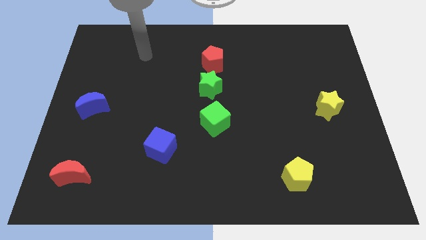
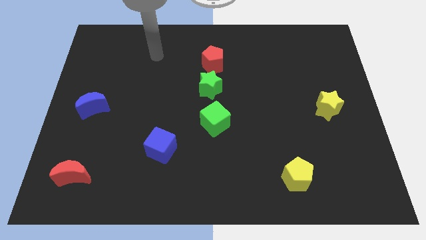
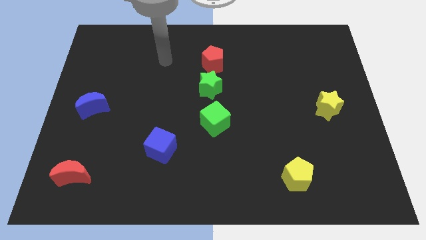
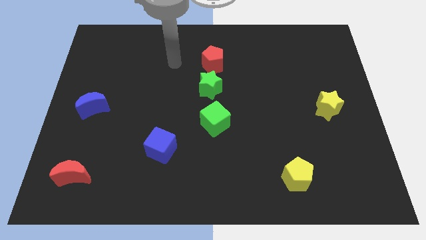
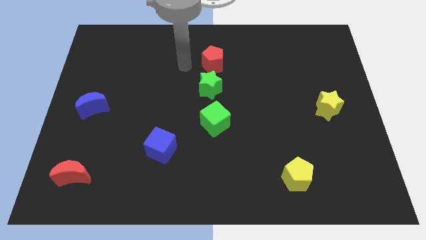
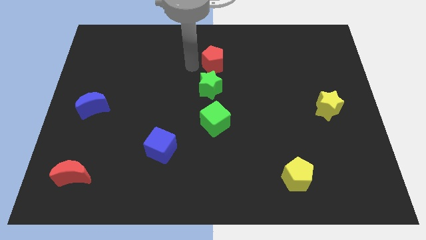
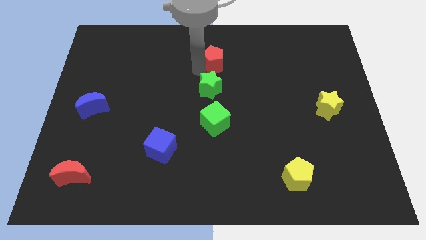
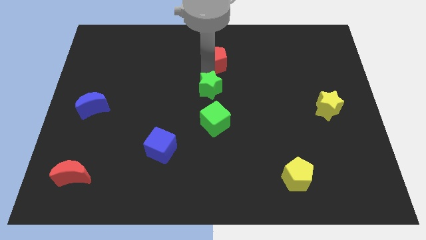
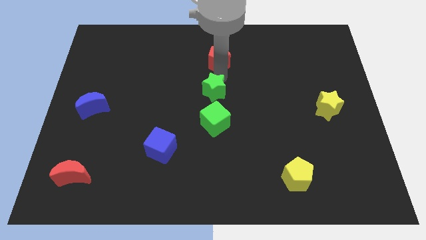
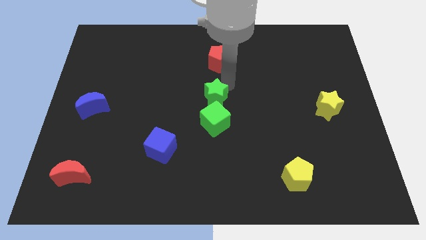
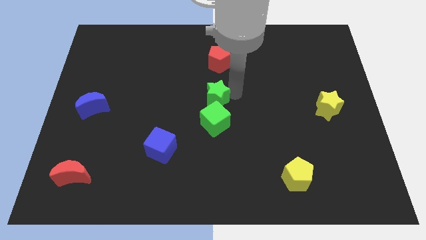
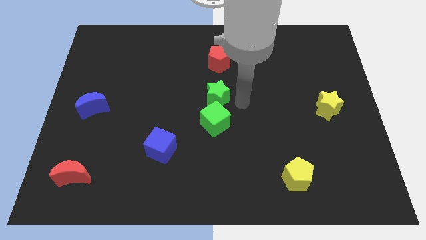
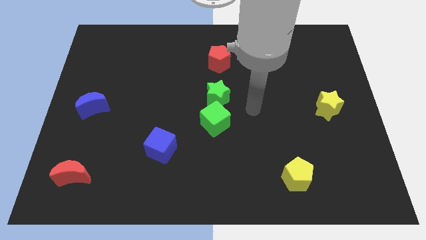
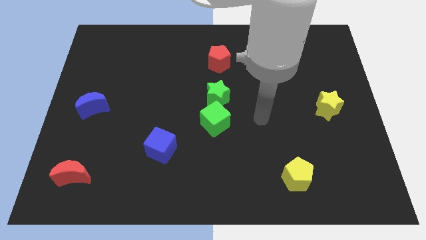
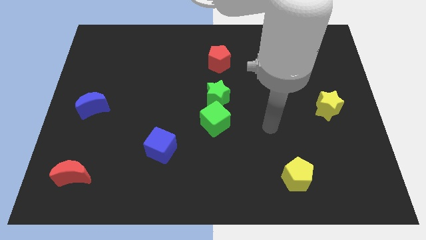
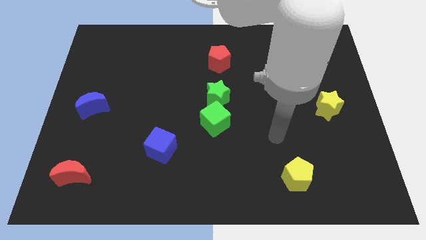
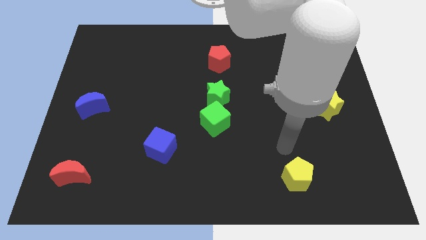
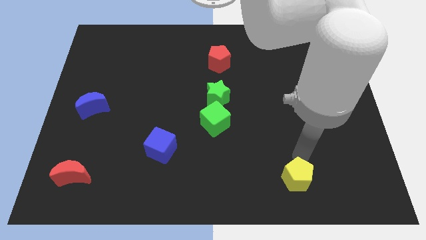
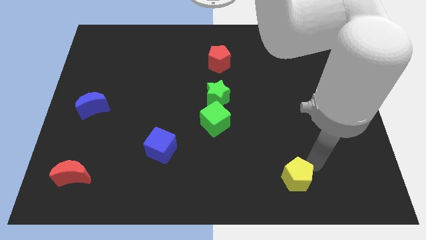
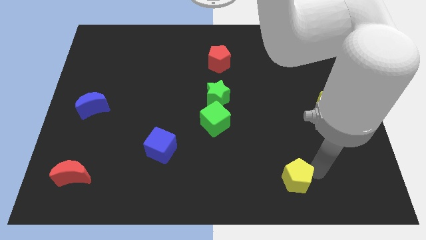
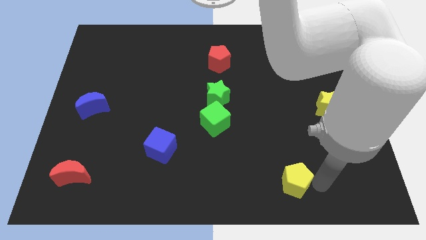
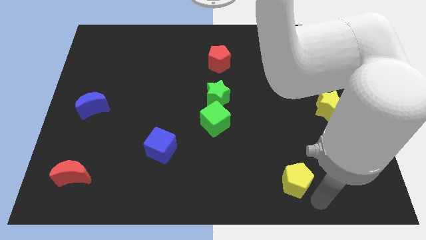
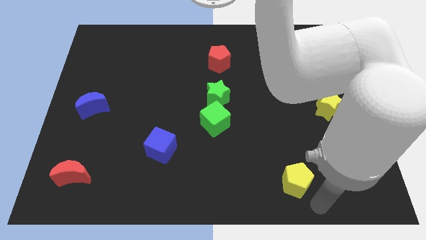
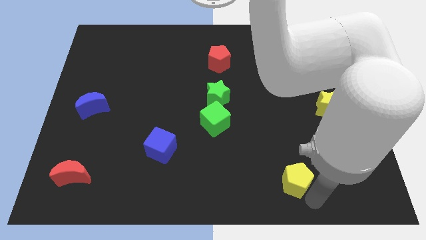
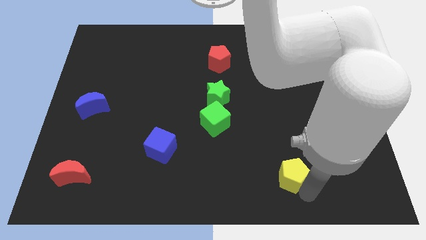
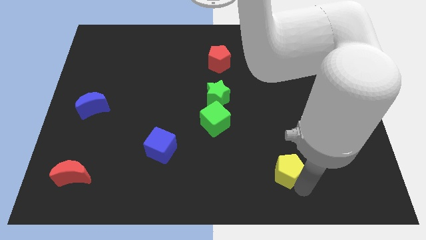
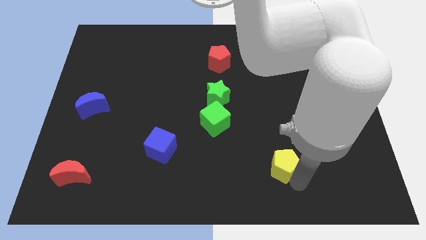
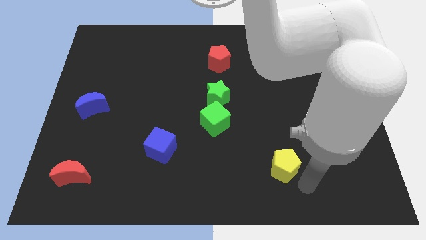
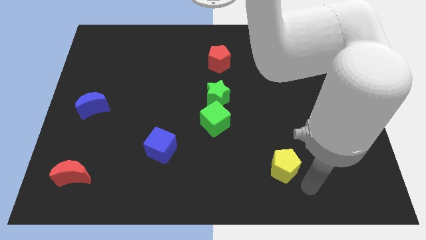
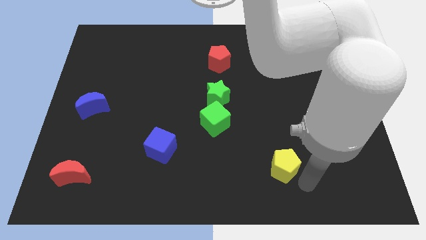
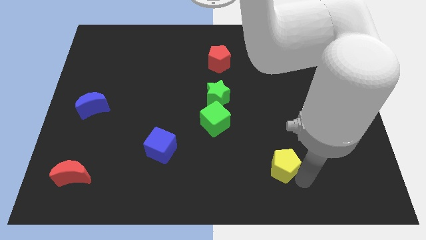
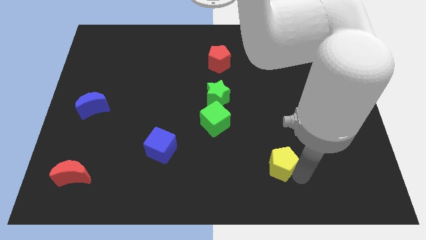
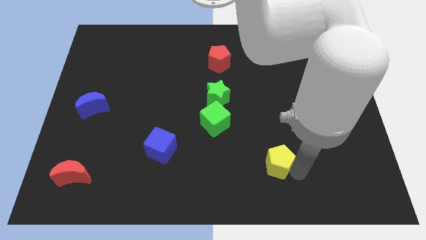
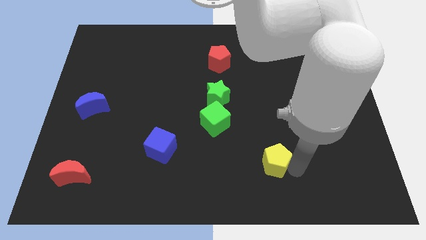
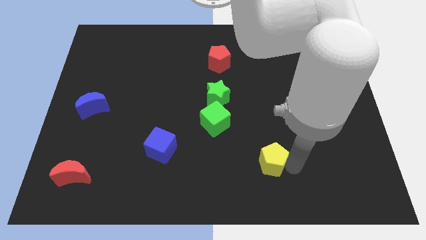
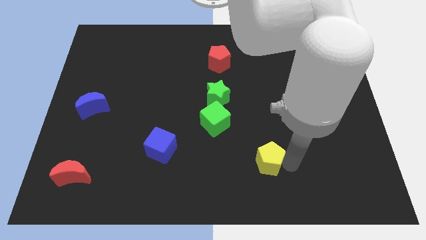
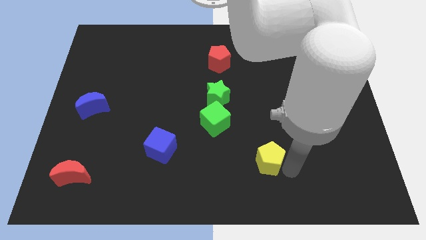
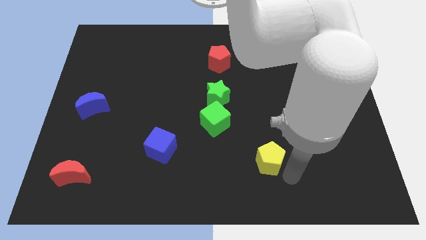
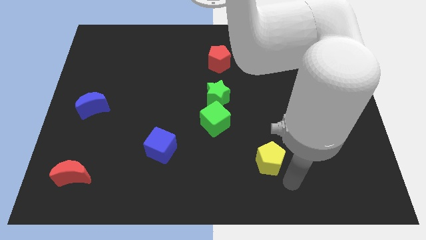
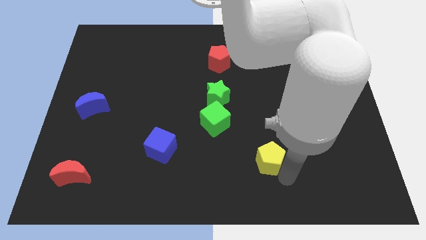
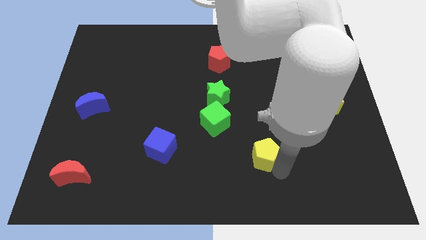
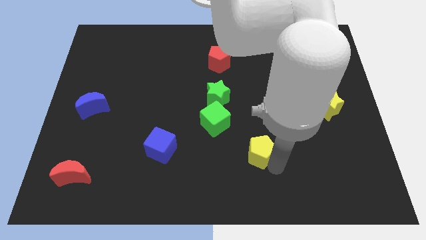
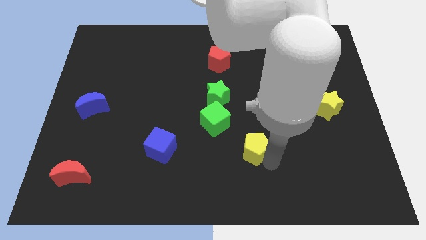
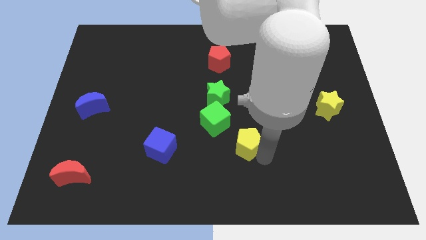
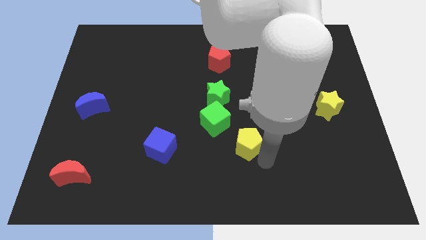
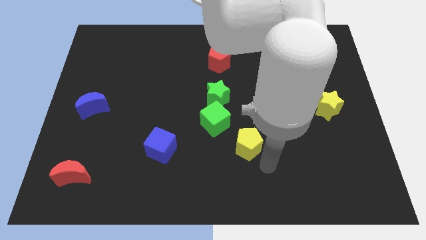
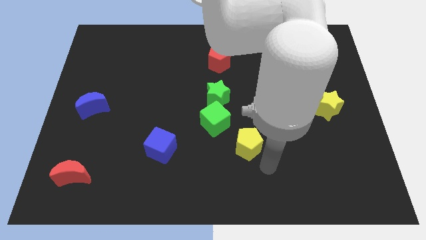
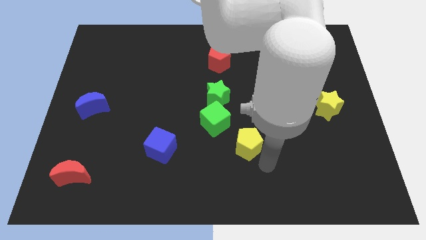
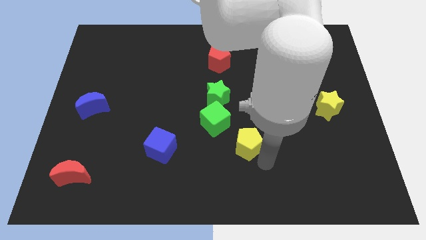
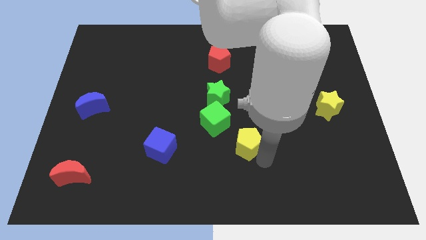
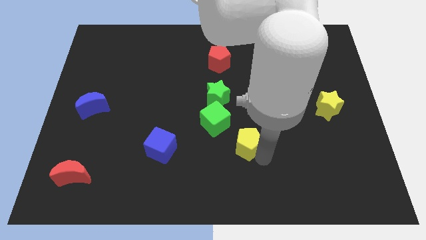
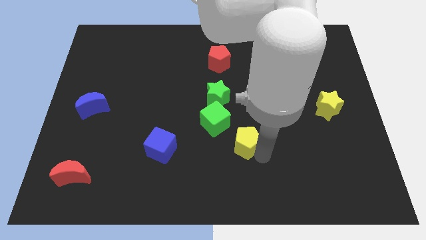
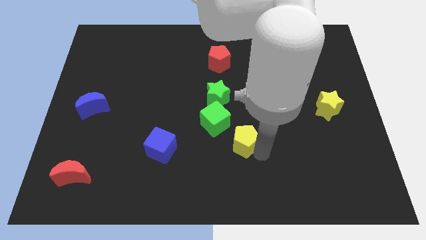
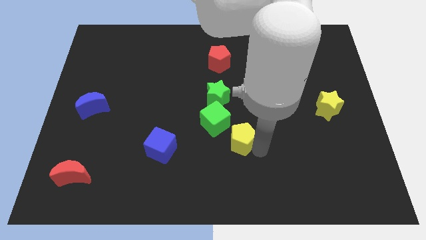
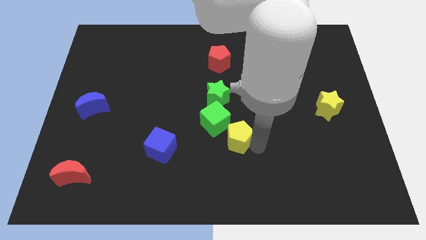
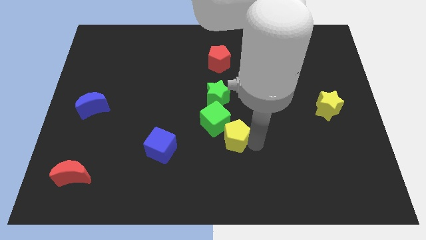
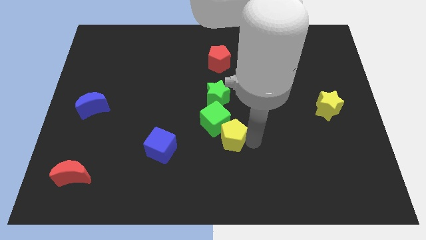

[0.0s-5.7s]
push the yellow pentagon next to the green cube

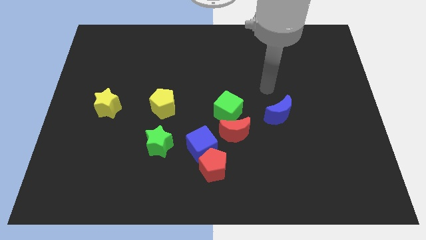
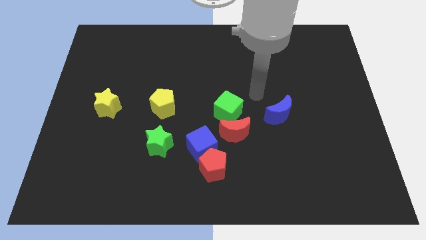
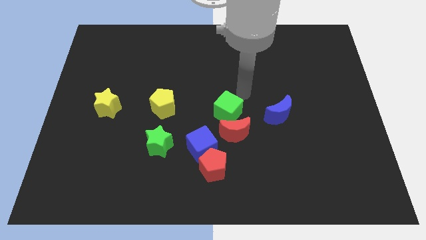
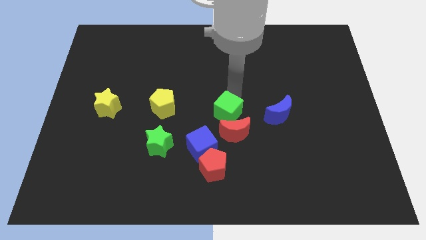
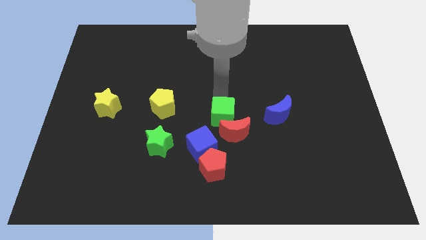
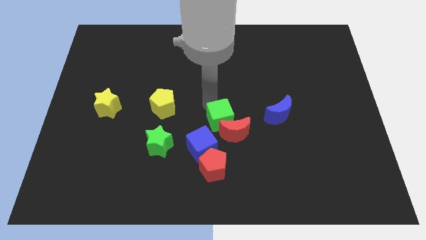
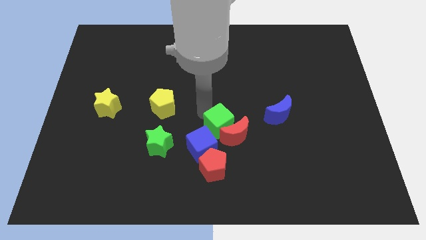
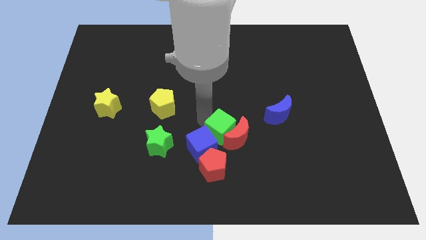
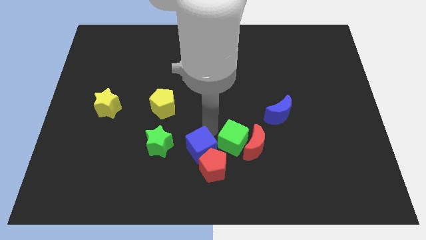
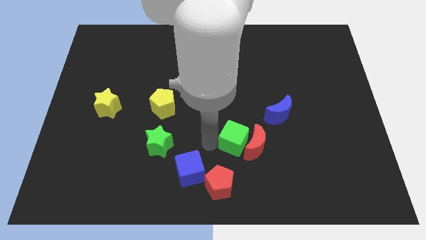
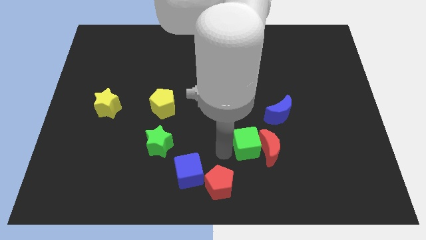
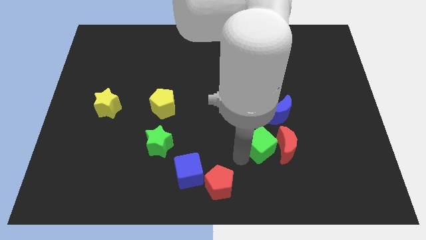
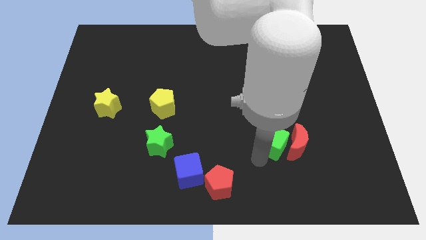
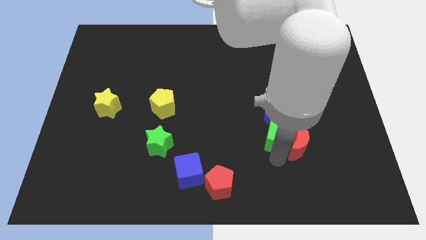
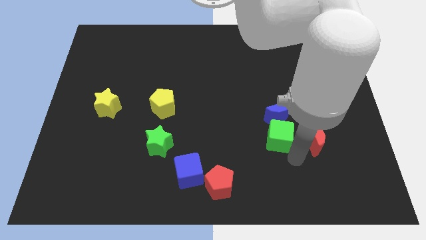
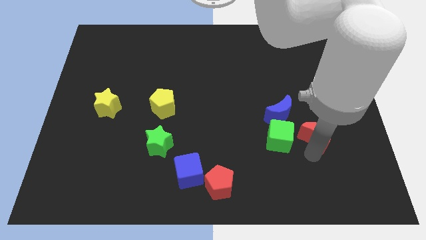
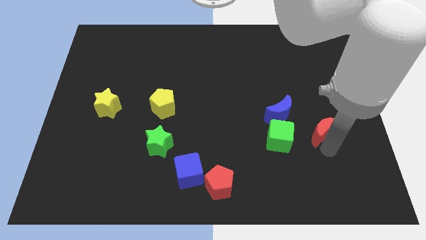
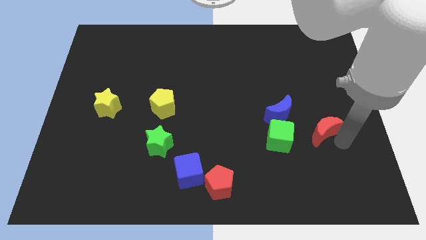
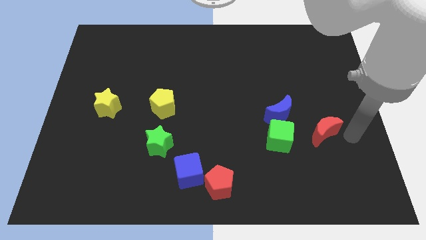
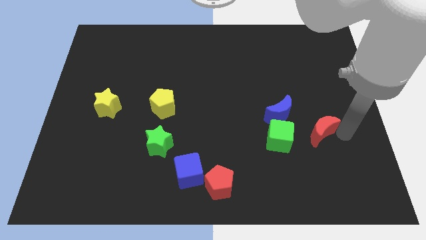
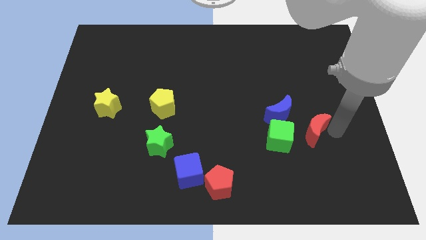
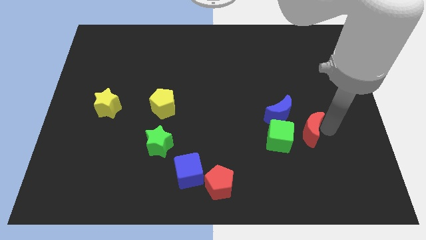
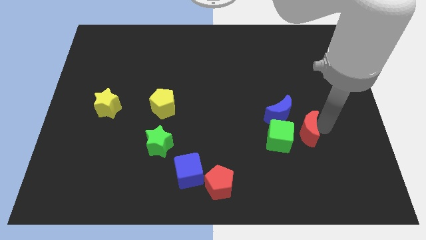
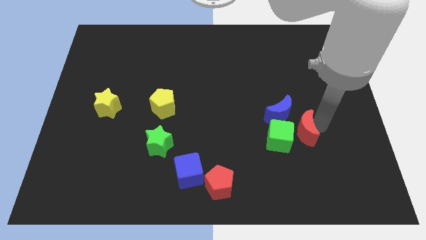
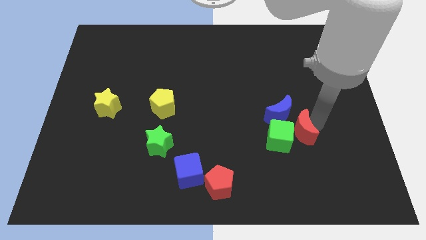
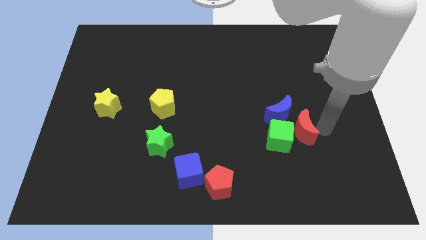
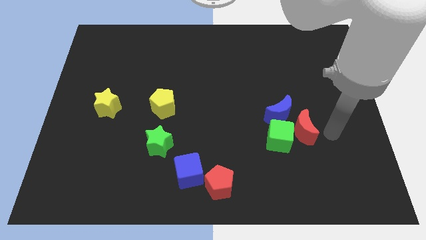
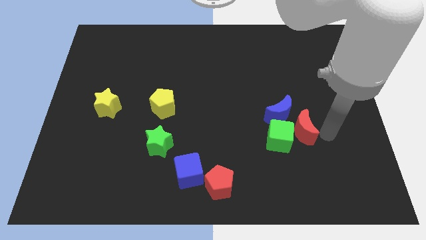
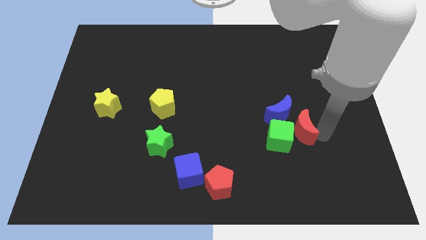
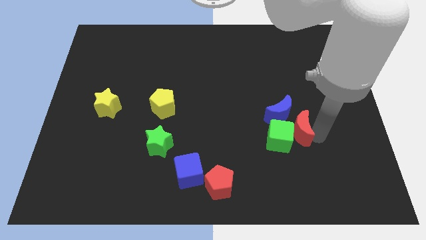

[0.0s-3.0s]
put the red moon close to the blue moon
